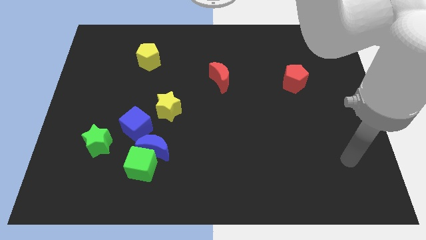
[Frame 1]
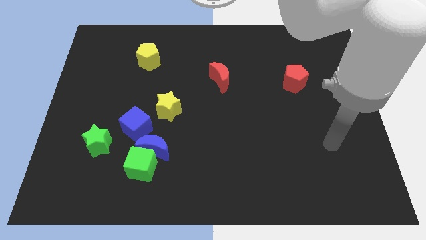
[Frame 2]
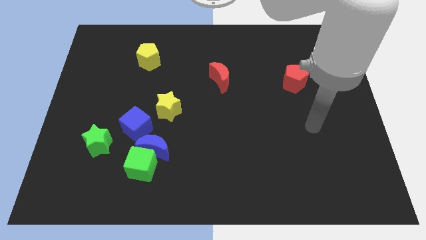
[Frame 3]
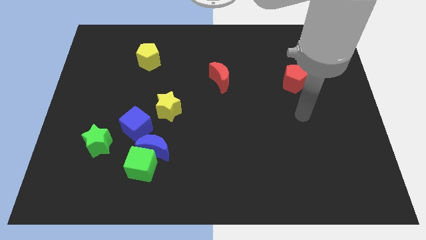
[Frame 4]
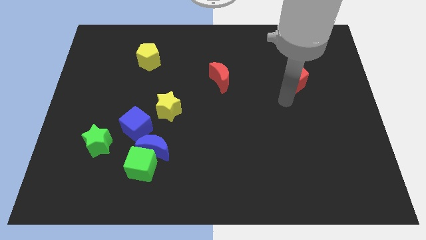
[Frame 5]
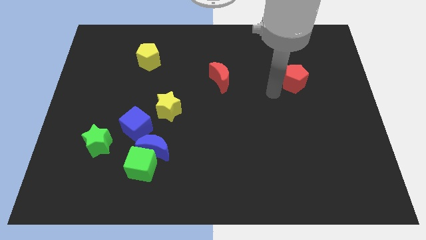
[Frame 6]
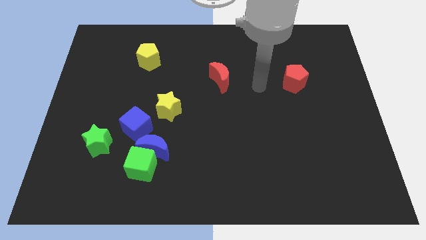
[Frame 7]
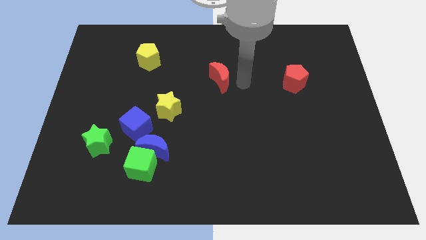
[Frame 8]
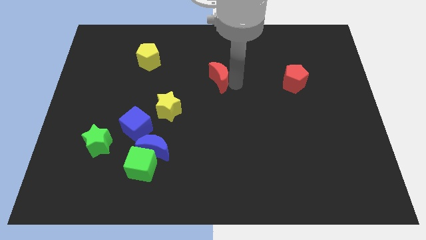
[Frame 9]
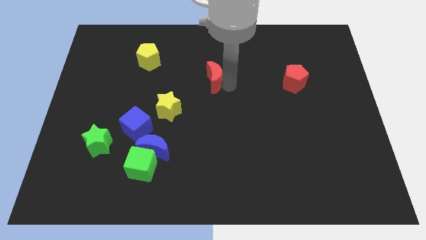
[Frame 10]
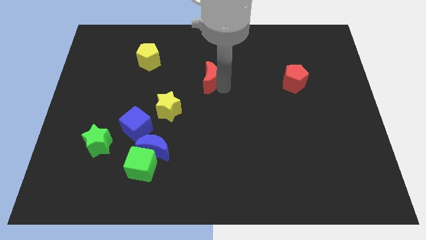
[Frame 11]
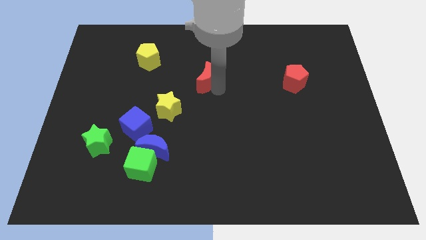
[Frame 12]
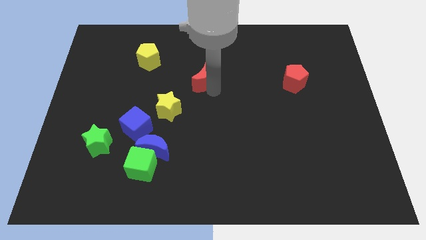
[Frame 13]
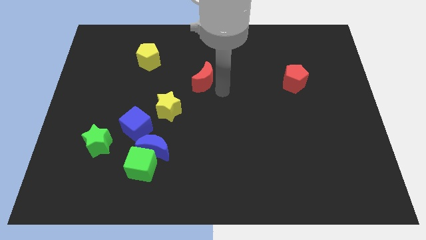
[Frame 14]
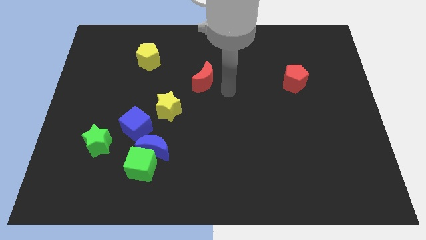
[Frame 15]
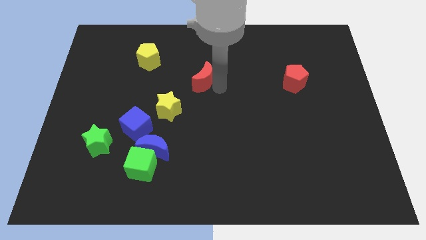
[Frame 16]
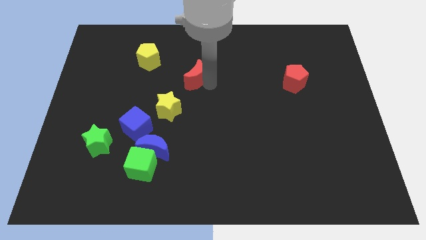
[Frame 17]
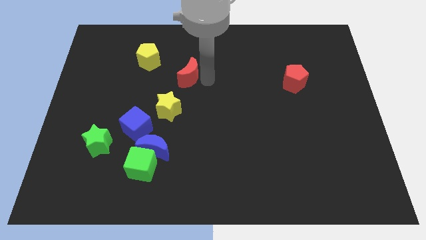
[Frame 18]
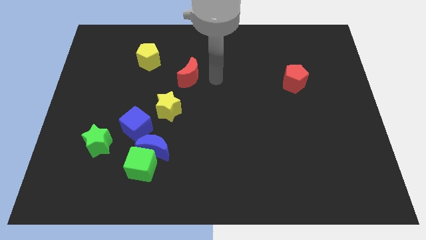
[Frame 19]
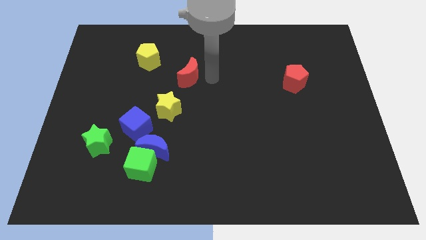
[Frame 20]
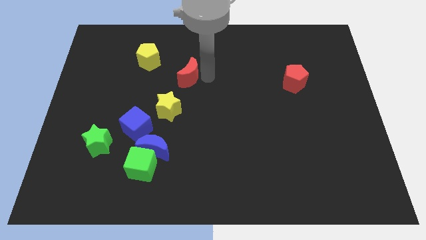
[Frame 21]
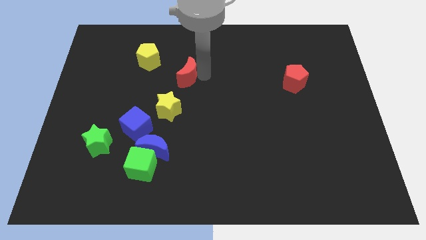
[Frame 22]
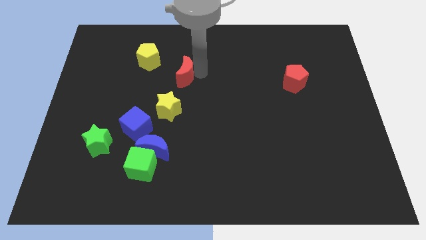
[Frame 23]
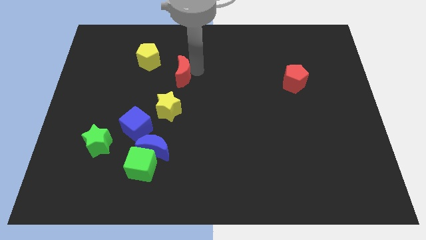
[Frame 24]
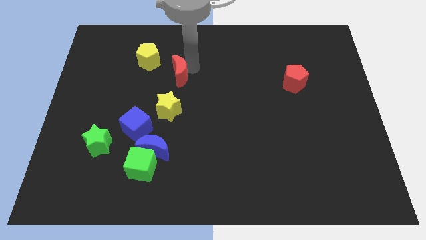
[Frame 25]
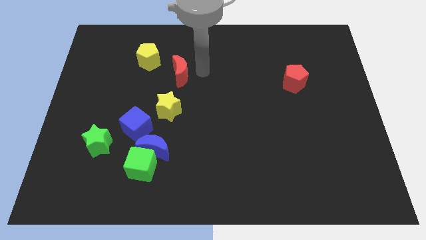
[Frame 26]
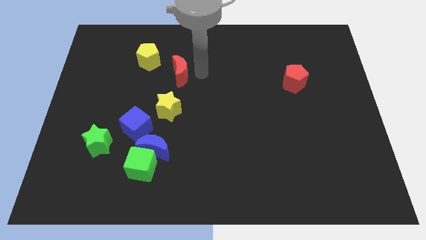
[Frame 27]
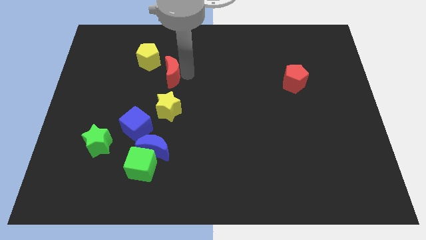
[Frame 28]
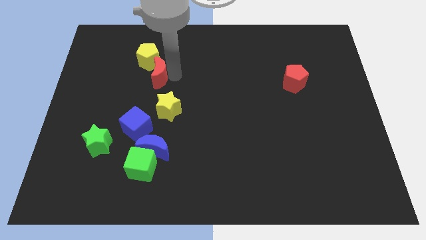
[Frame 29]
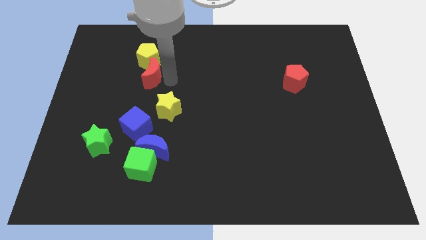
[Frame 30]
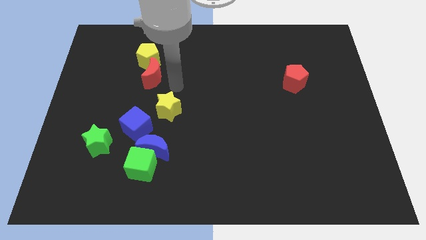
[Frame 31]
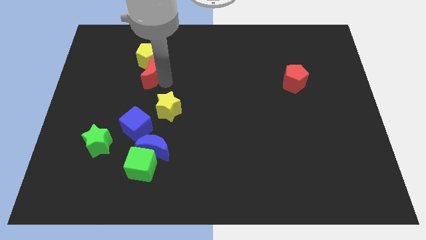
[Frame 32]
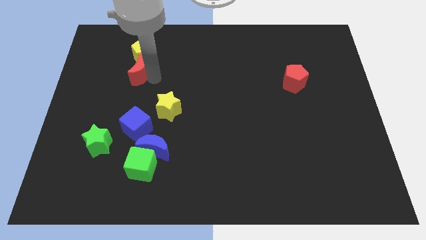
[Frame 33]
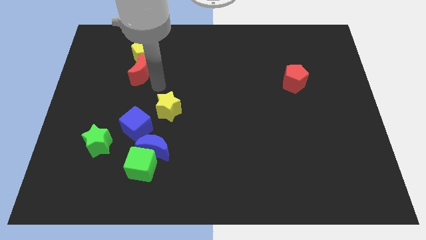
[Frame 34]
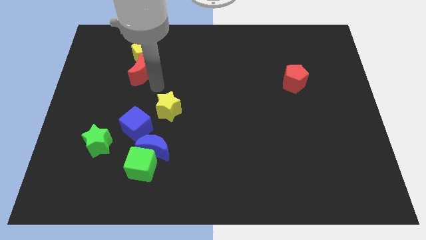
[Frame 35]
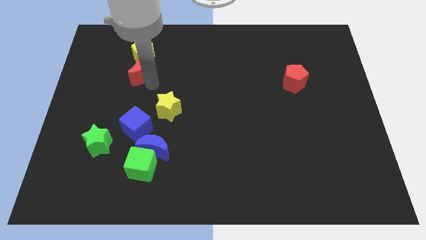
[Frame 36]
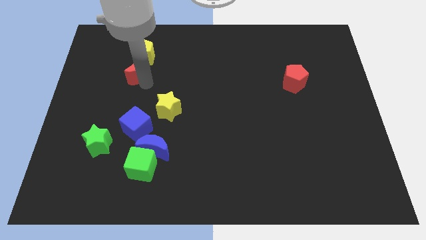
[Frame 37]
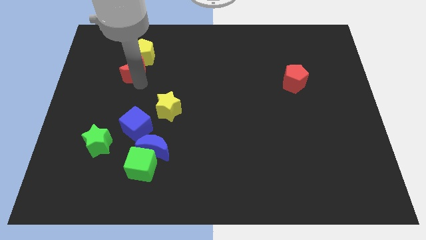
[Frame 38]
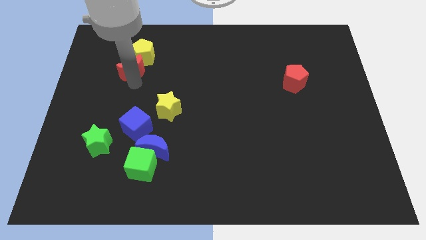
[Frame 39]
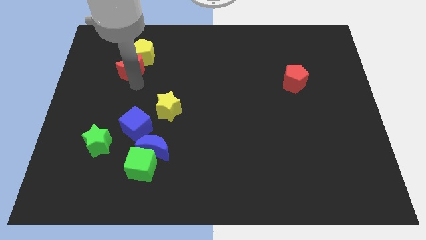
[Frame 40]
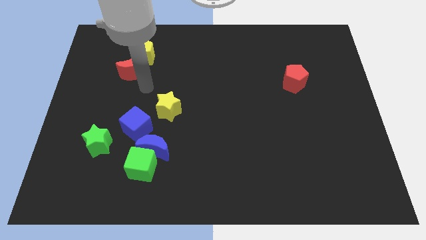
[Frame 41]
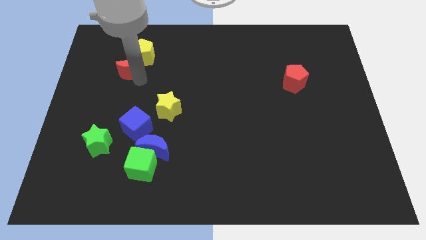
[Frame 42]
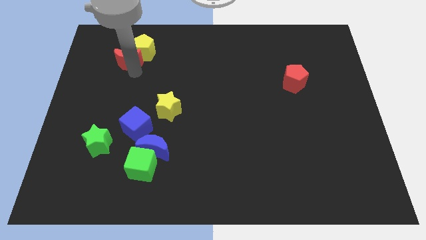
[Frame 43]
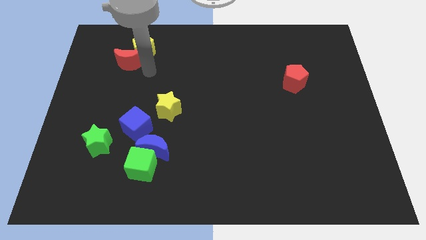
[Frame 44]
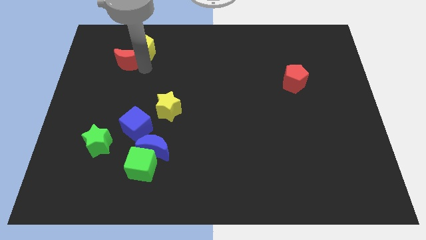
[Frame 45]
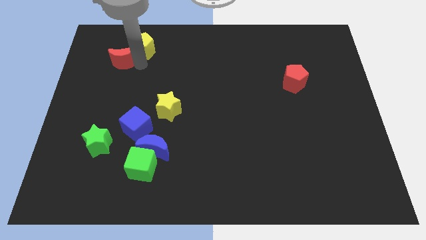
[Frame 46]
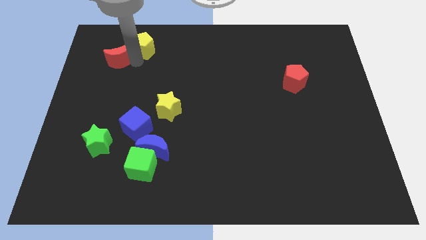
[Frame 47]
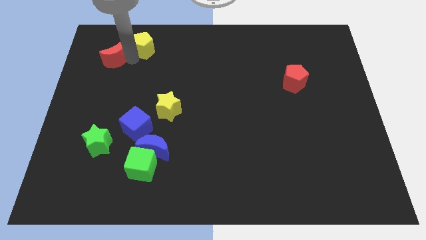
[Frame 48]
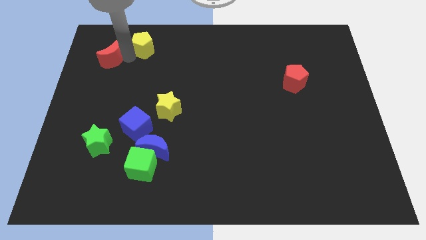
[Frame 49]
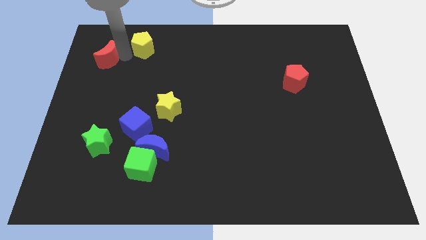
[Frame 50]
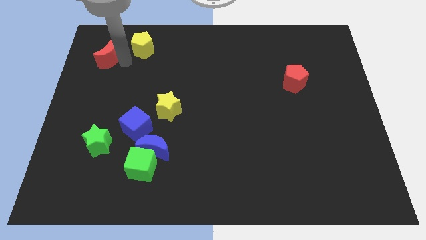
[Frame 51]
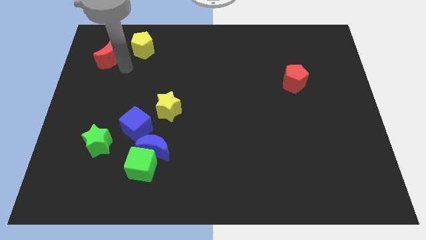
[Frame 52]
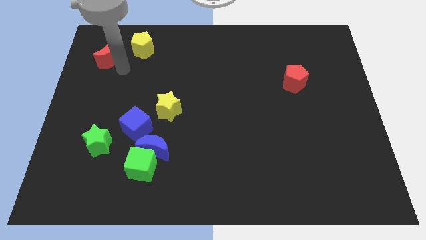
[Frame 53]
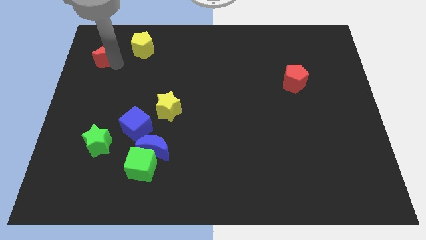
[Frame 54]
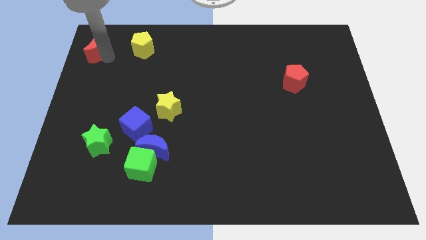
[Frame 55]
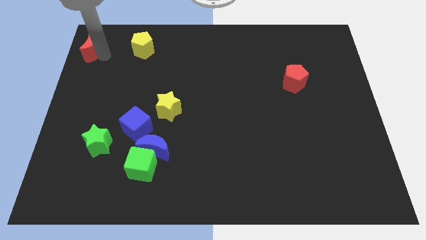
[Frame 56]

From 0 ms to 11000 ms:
move the red moon to the top left

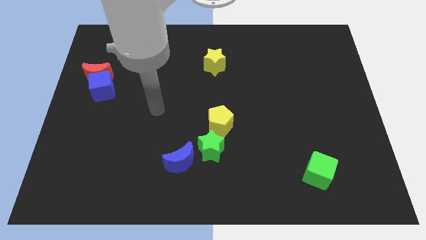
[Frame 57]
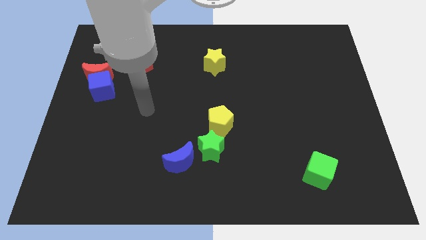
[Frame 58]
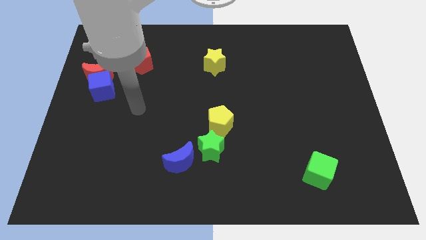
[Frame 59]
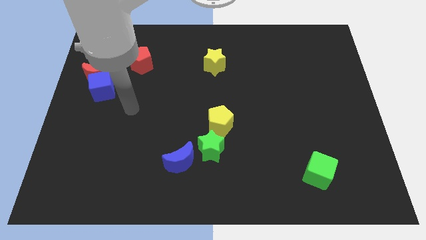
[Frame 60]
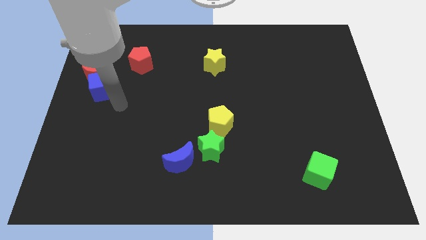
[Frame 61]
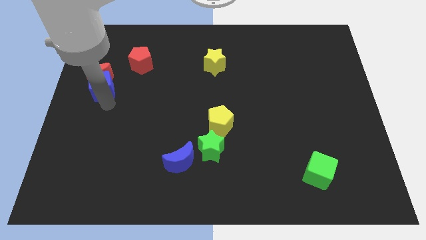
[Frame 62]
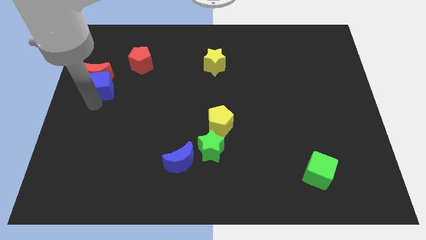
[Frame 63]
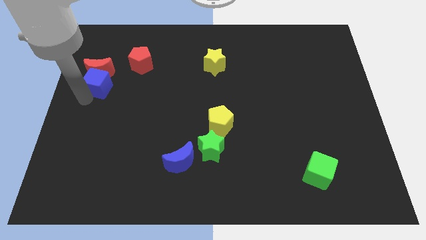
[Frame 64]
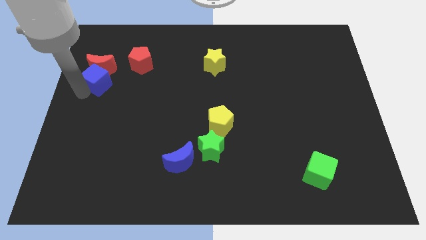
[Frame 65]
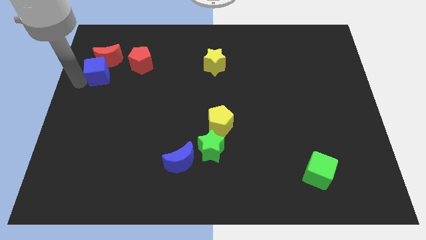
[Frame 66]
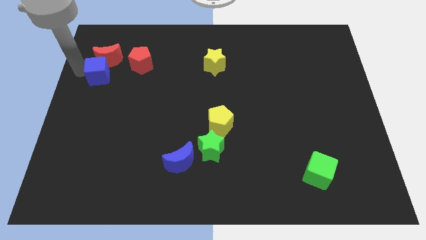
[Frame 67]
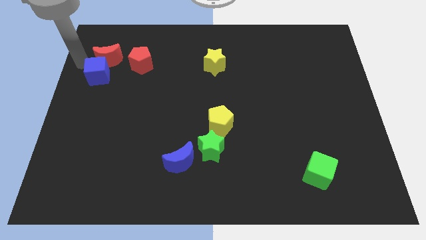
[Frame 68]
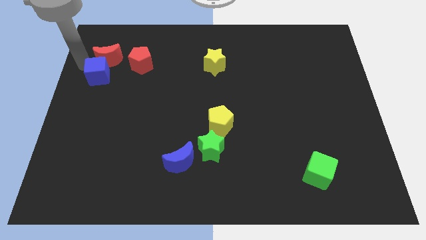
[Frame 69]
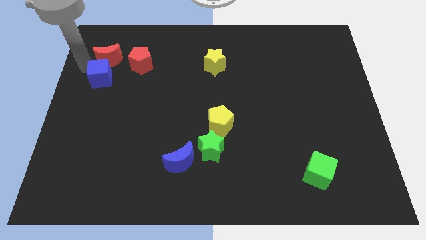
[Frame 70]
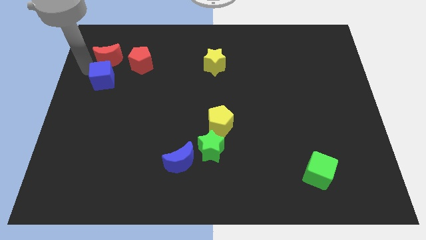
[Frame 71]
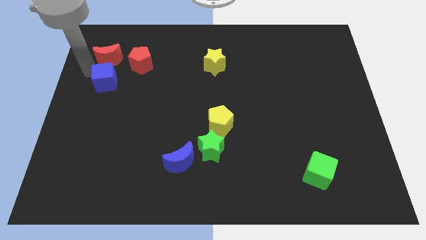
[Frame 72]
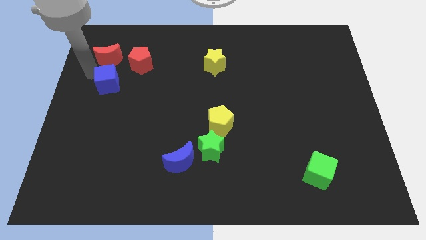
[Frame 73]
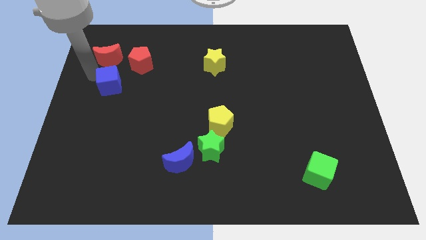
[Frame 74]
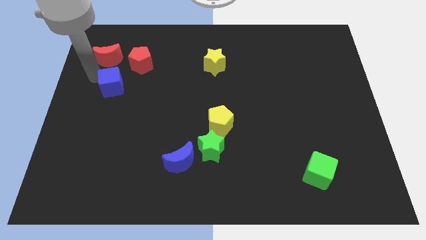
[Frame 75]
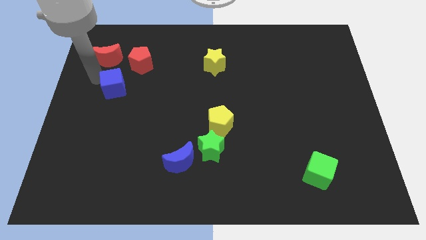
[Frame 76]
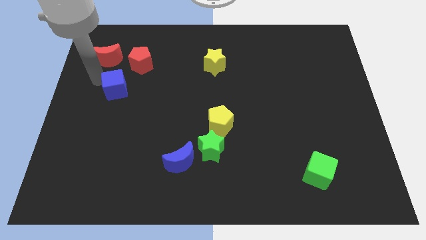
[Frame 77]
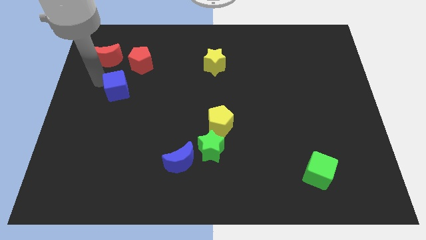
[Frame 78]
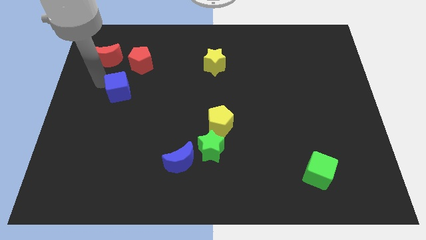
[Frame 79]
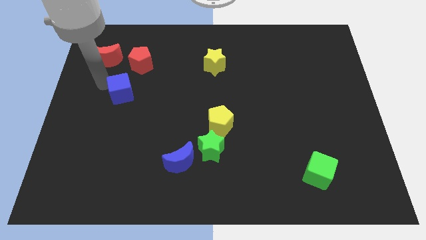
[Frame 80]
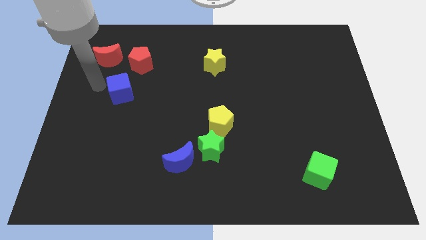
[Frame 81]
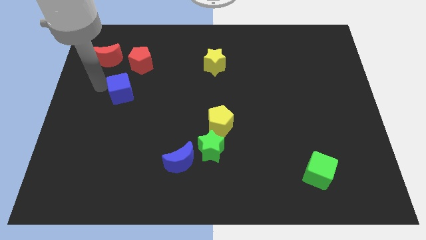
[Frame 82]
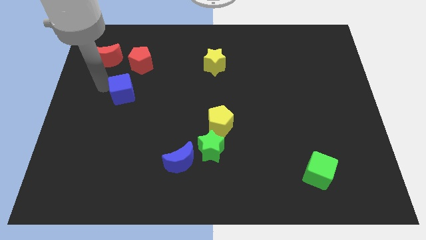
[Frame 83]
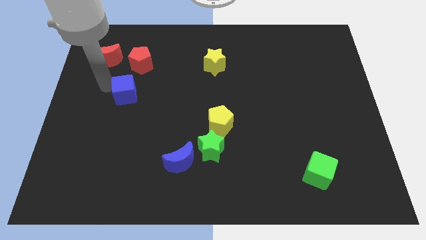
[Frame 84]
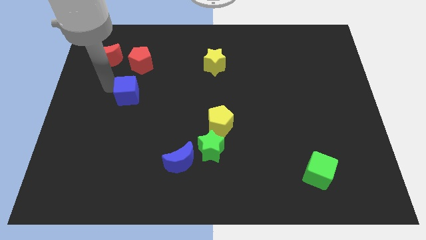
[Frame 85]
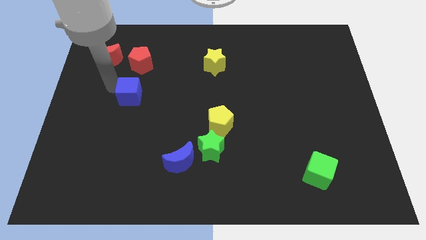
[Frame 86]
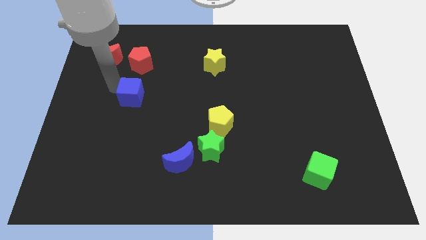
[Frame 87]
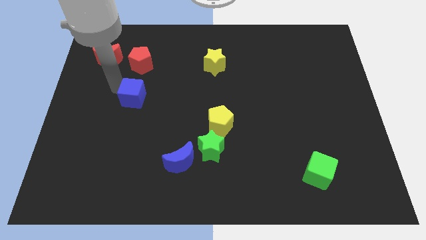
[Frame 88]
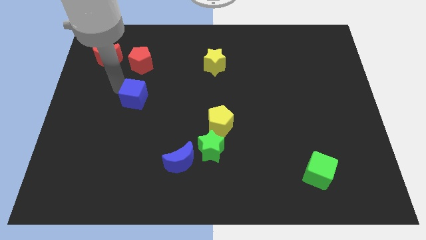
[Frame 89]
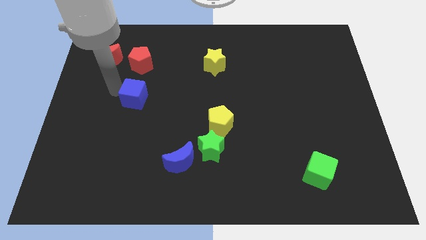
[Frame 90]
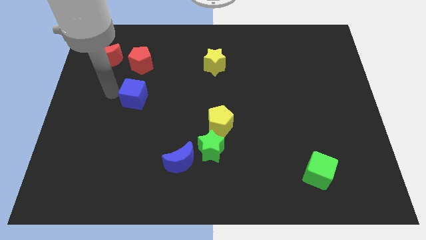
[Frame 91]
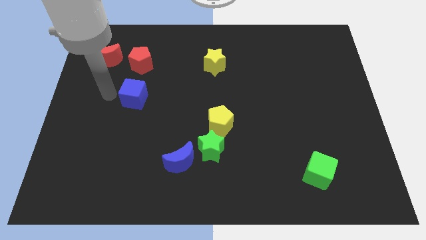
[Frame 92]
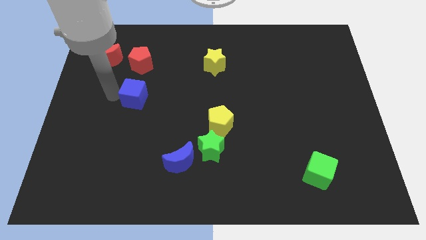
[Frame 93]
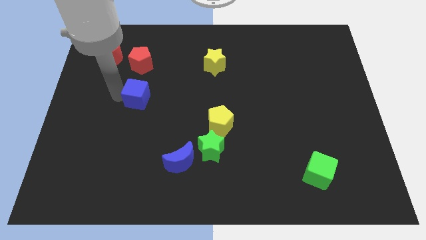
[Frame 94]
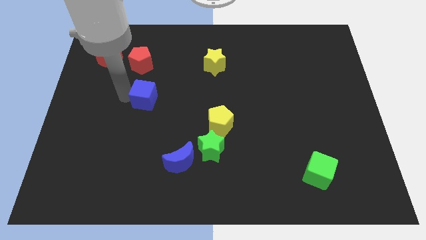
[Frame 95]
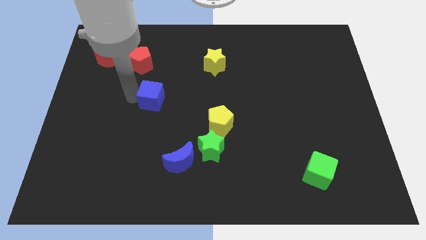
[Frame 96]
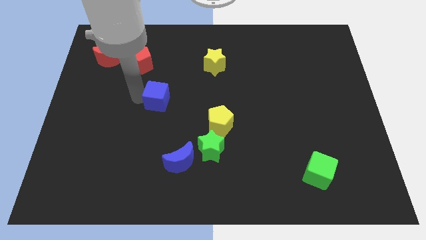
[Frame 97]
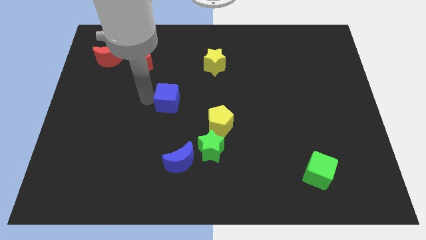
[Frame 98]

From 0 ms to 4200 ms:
move the blue cube to the middle
